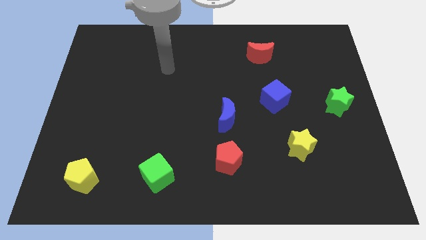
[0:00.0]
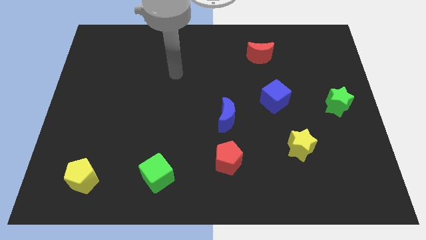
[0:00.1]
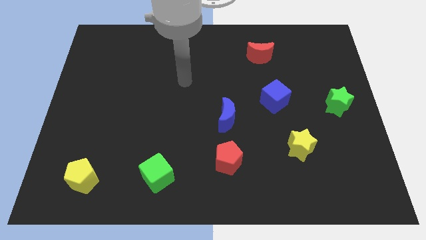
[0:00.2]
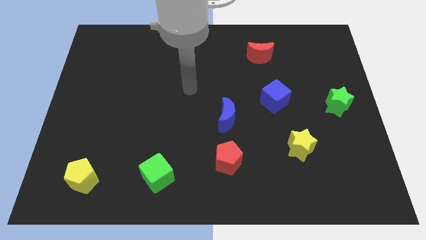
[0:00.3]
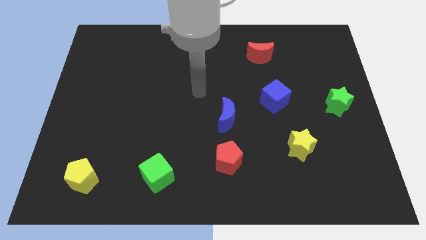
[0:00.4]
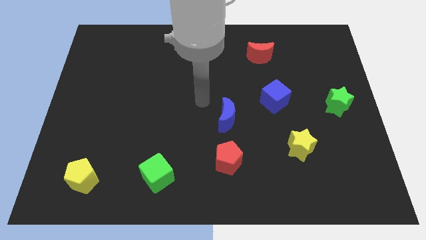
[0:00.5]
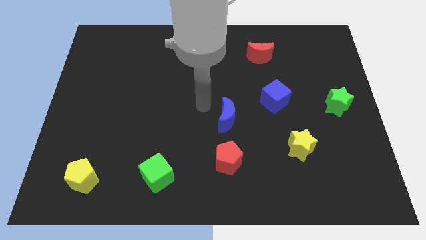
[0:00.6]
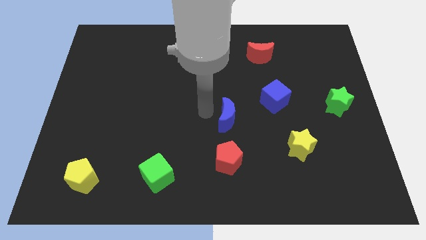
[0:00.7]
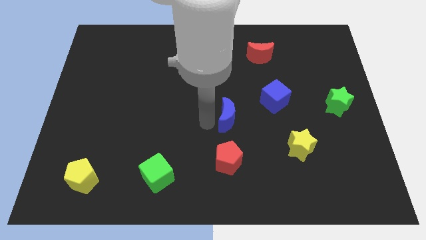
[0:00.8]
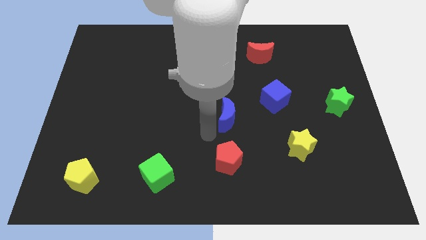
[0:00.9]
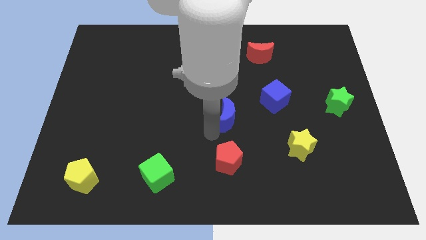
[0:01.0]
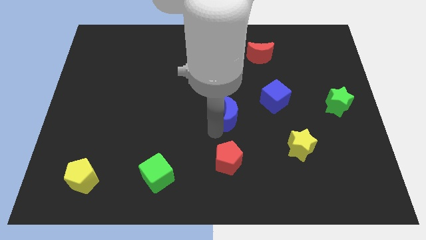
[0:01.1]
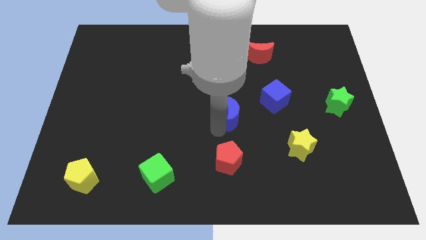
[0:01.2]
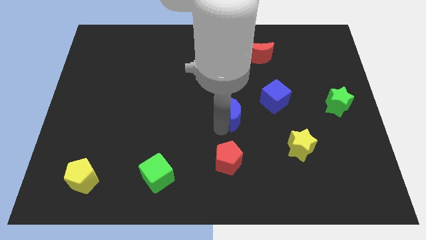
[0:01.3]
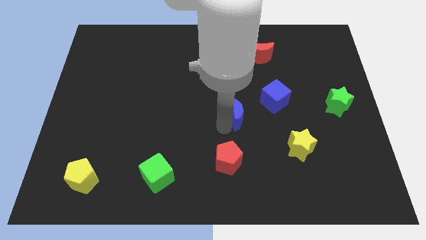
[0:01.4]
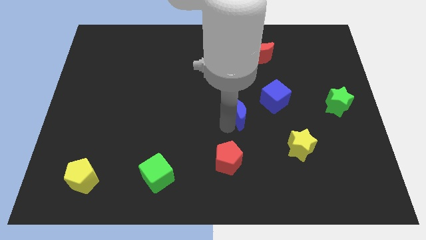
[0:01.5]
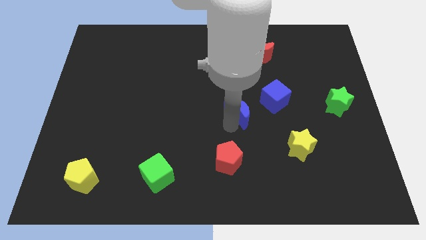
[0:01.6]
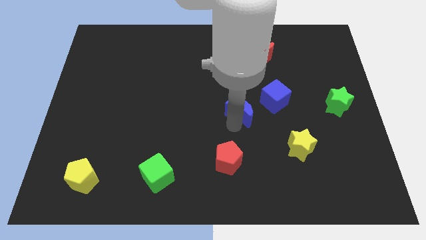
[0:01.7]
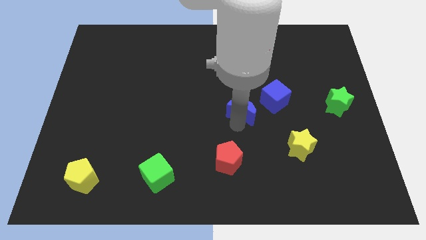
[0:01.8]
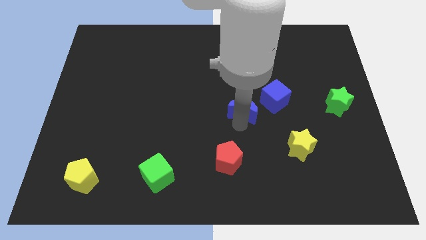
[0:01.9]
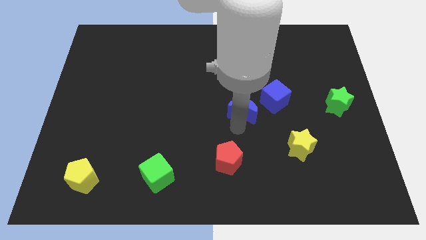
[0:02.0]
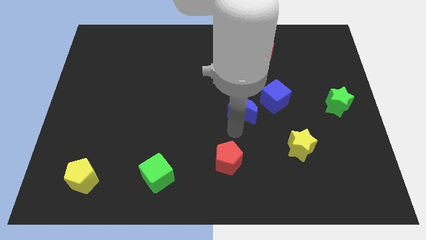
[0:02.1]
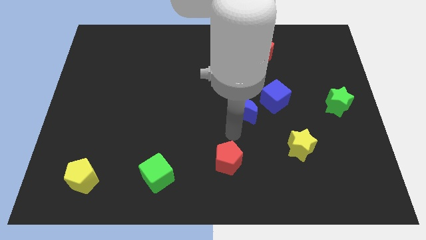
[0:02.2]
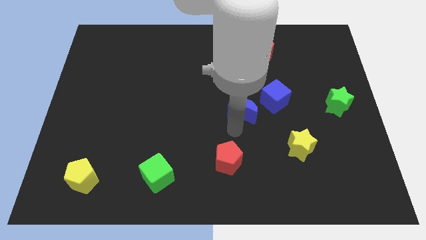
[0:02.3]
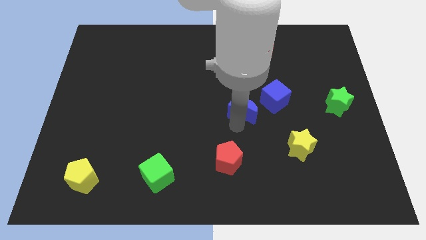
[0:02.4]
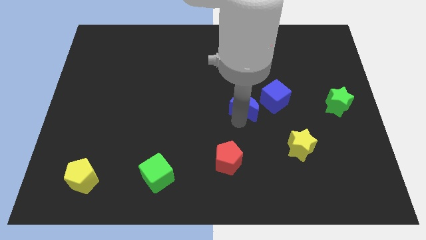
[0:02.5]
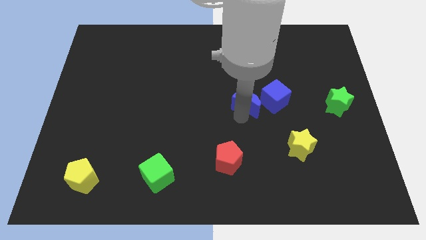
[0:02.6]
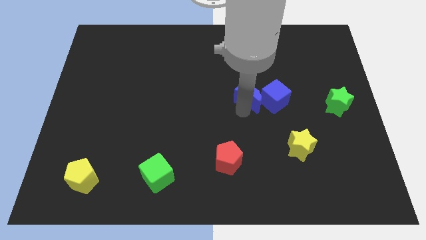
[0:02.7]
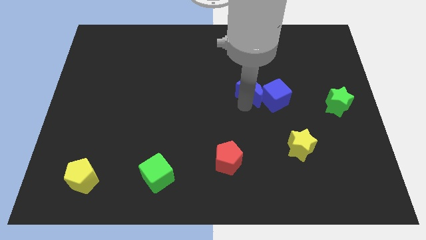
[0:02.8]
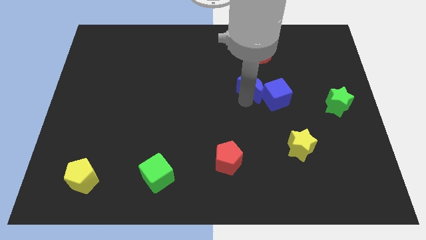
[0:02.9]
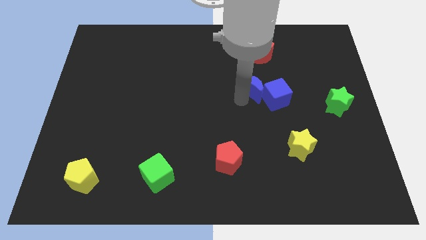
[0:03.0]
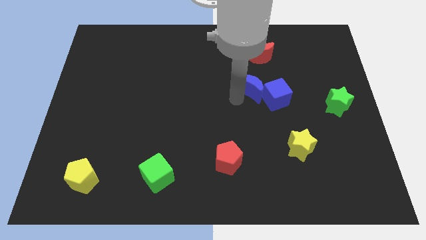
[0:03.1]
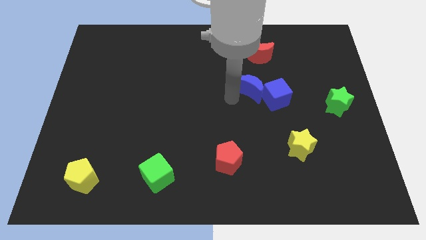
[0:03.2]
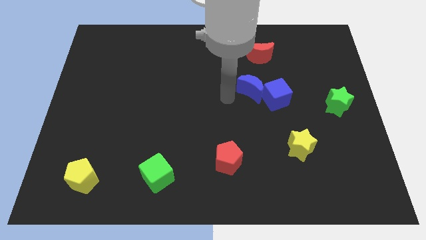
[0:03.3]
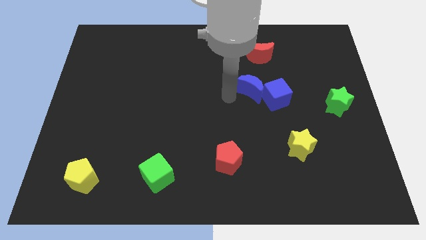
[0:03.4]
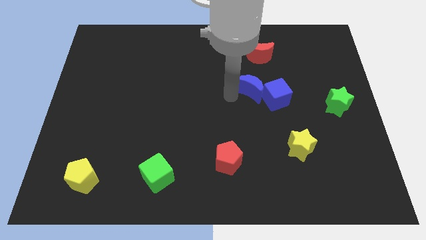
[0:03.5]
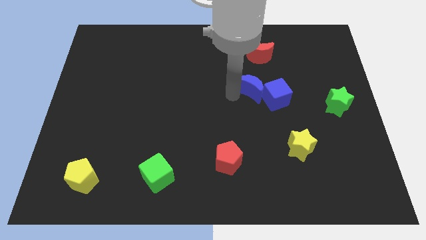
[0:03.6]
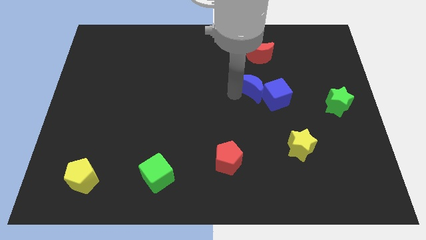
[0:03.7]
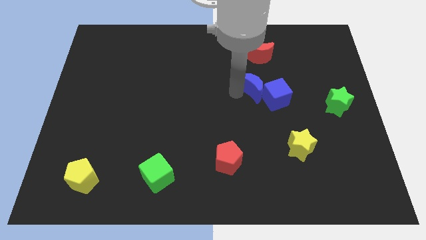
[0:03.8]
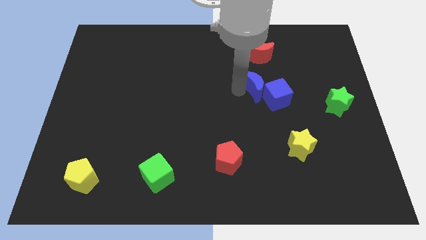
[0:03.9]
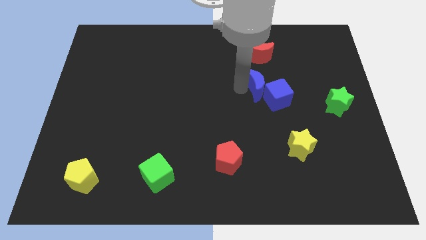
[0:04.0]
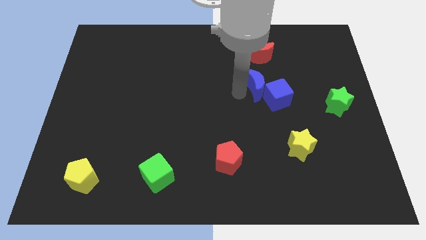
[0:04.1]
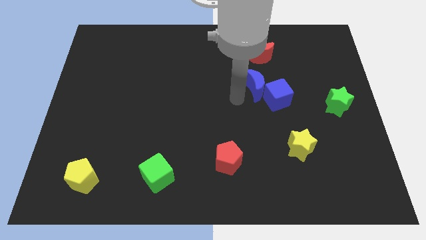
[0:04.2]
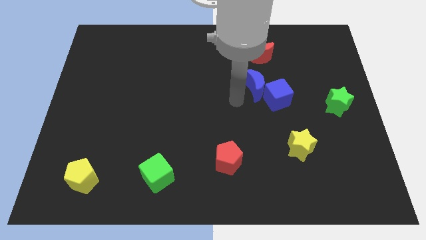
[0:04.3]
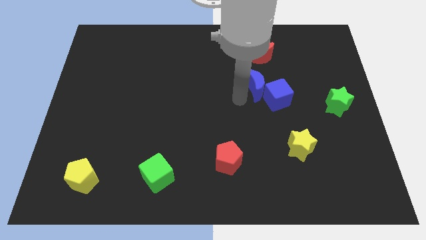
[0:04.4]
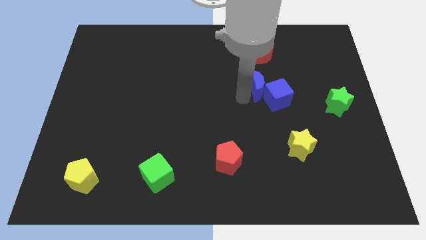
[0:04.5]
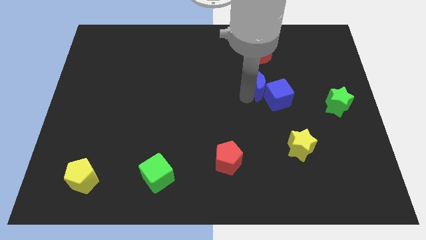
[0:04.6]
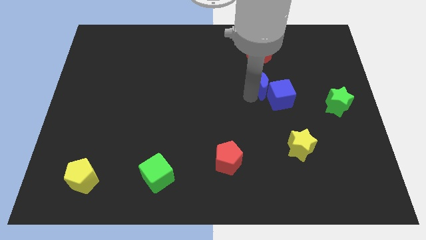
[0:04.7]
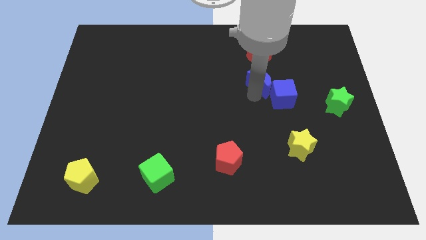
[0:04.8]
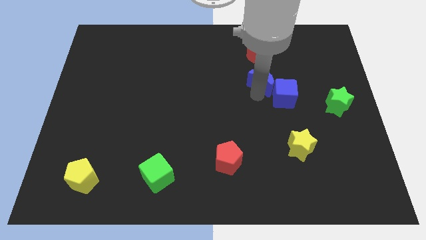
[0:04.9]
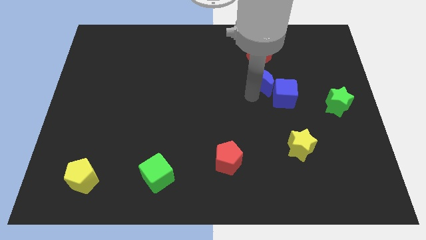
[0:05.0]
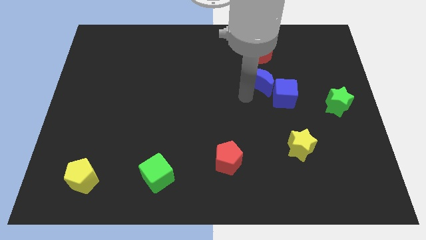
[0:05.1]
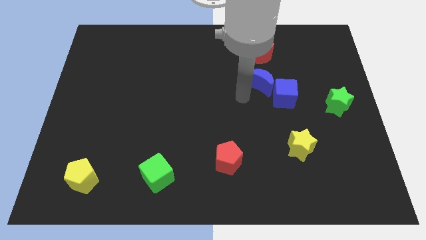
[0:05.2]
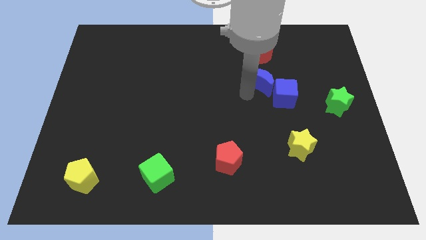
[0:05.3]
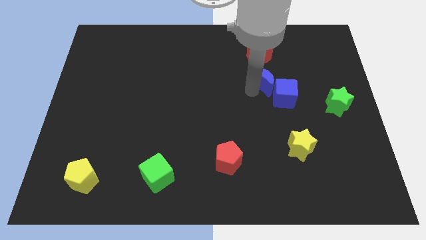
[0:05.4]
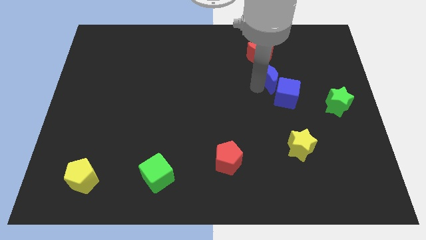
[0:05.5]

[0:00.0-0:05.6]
slide the blue moon to the bottom right of the red moon

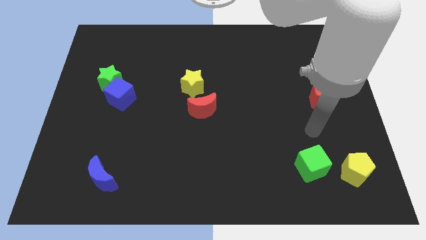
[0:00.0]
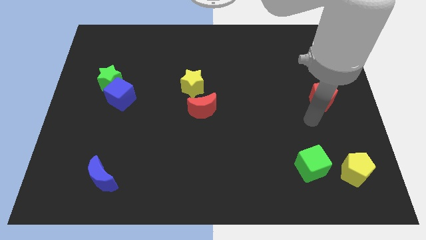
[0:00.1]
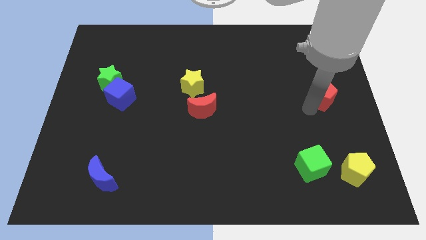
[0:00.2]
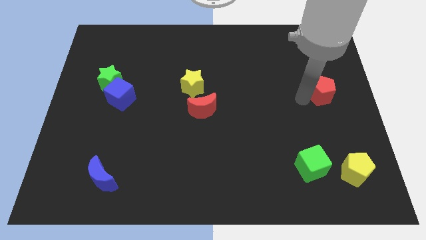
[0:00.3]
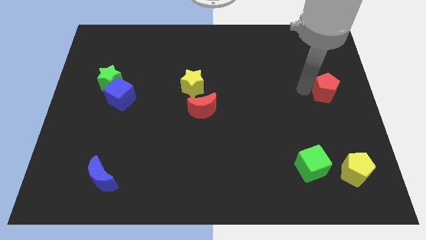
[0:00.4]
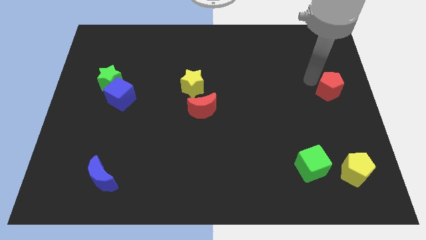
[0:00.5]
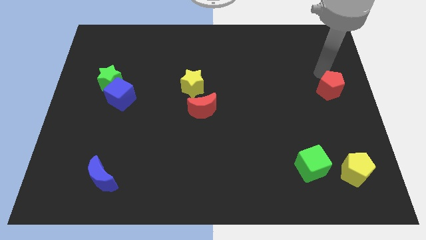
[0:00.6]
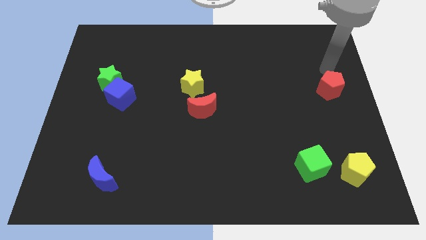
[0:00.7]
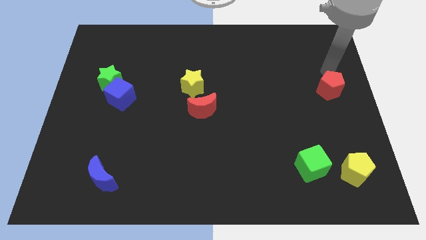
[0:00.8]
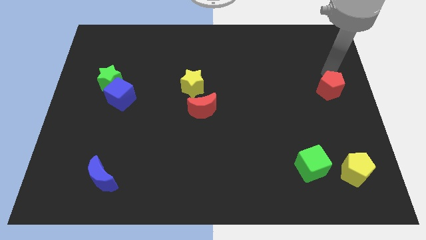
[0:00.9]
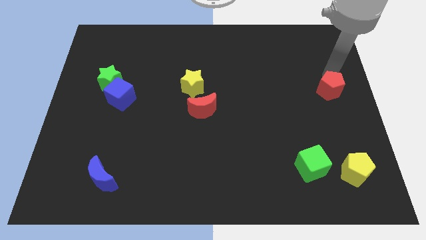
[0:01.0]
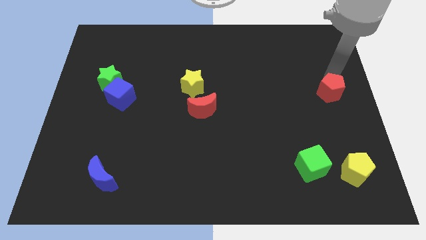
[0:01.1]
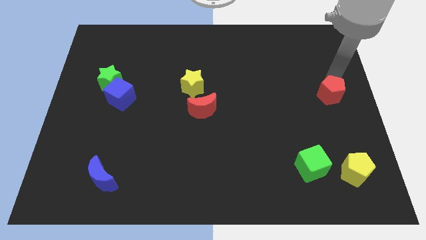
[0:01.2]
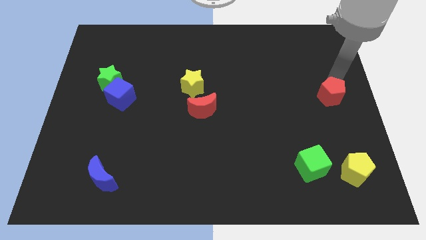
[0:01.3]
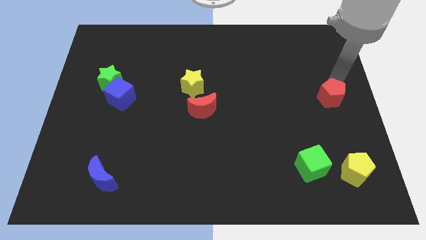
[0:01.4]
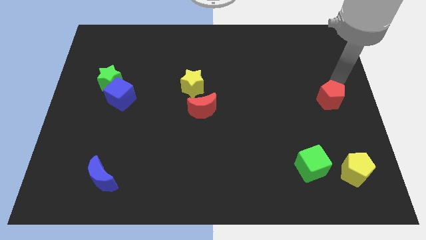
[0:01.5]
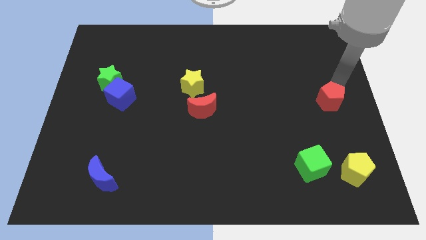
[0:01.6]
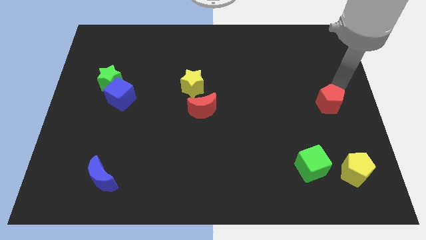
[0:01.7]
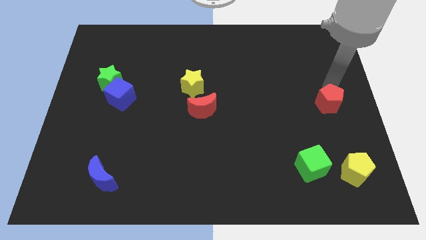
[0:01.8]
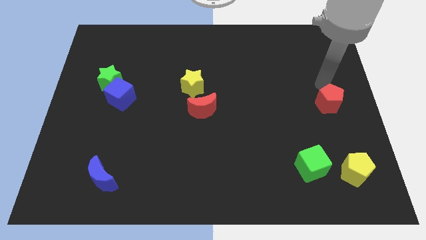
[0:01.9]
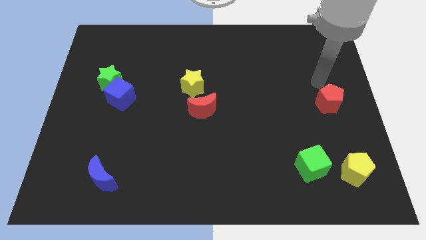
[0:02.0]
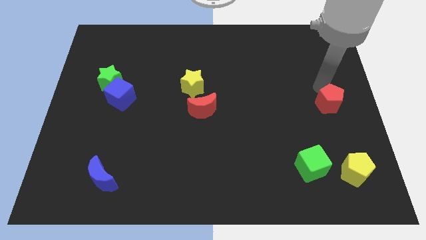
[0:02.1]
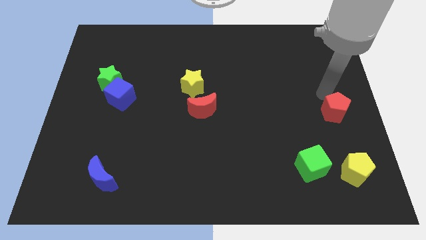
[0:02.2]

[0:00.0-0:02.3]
move the red pentagon to the top of the yellow pentagon
